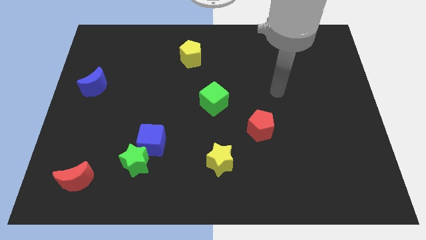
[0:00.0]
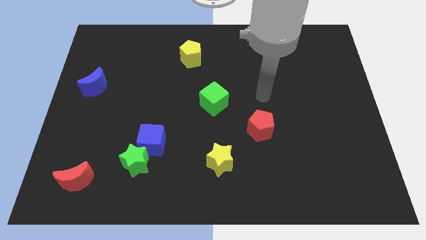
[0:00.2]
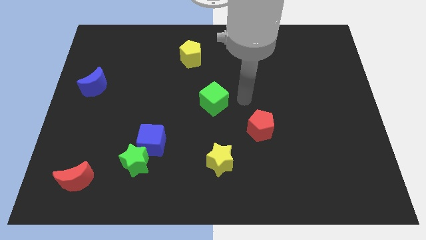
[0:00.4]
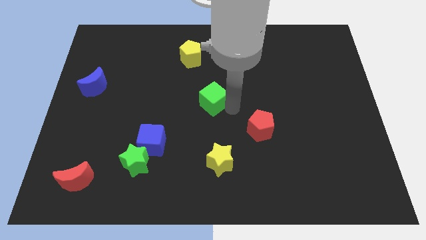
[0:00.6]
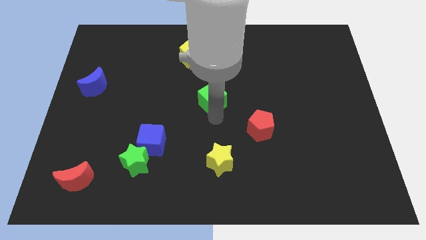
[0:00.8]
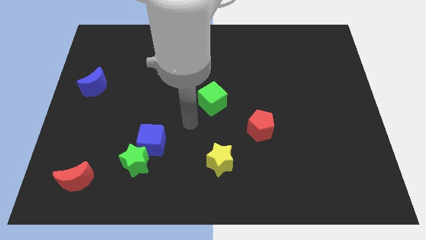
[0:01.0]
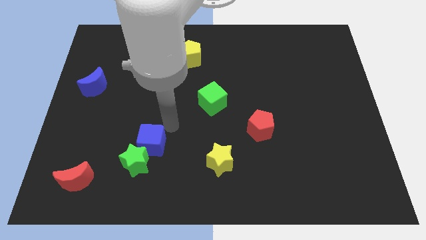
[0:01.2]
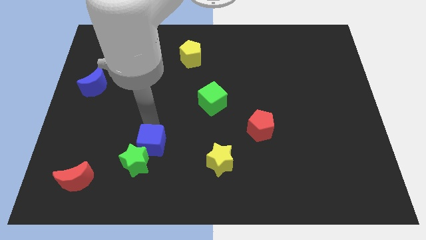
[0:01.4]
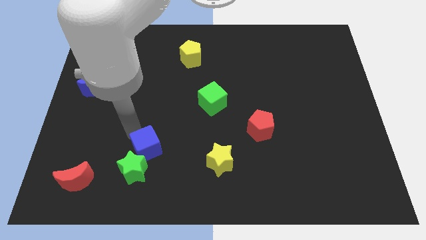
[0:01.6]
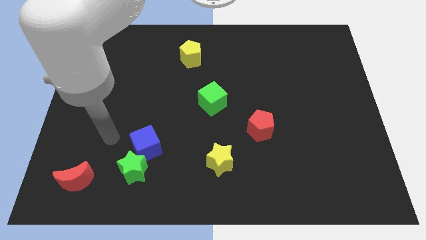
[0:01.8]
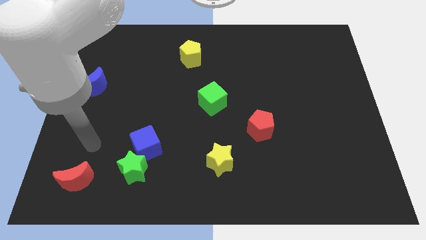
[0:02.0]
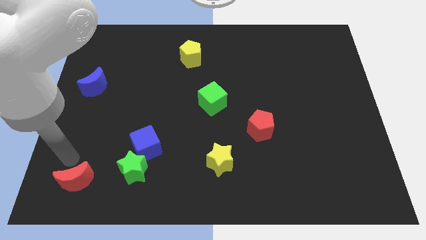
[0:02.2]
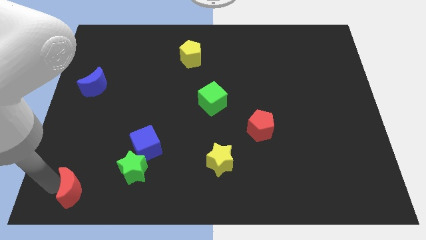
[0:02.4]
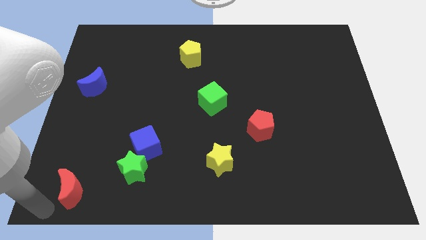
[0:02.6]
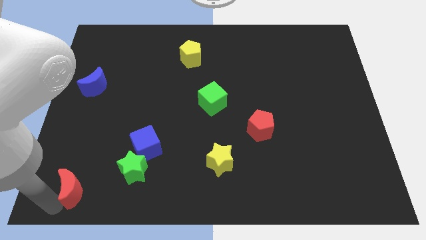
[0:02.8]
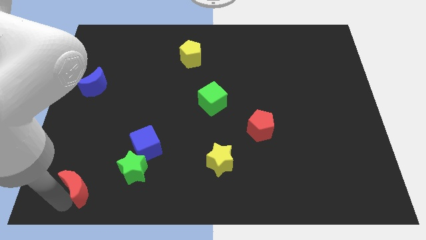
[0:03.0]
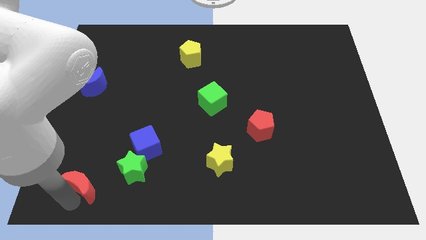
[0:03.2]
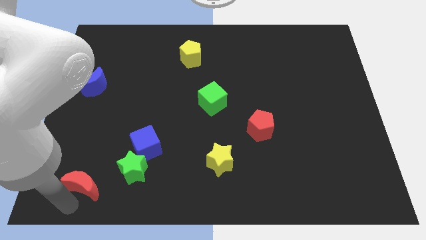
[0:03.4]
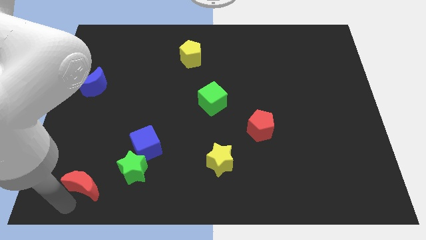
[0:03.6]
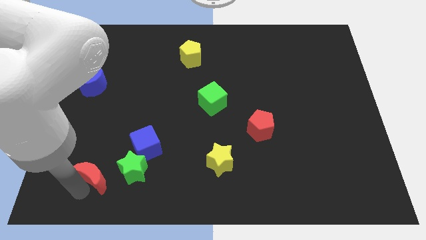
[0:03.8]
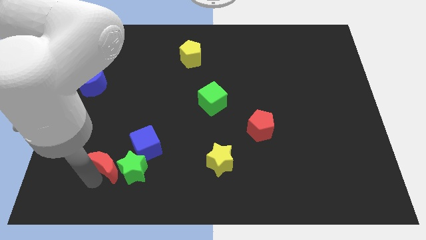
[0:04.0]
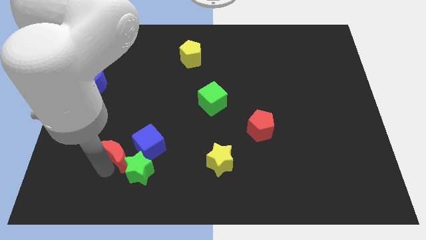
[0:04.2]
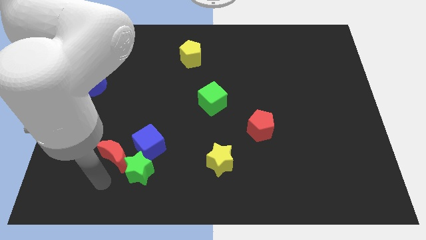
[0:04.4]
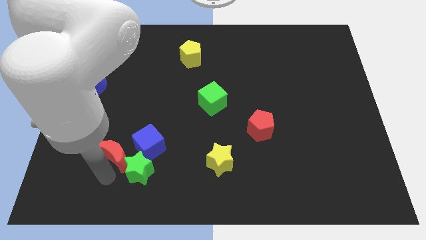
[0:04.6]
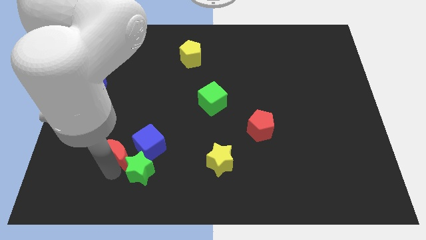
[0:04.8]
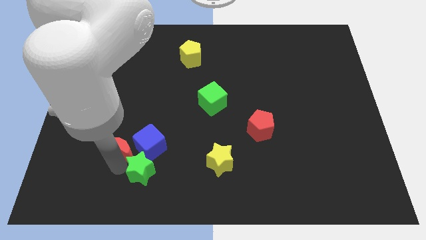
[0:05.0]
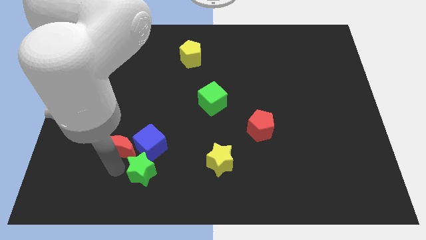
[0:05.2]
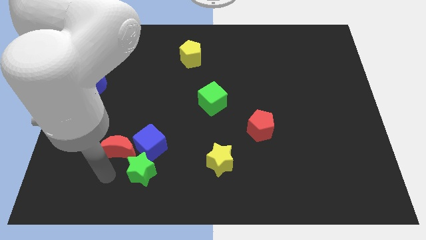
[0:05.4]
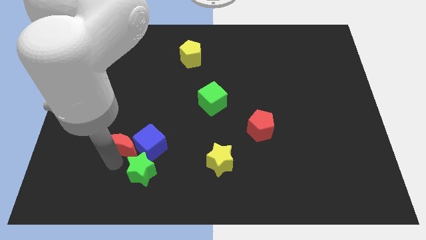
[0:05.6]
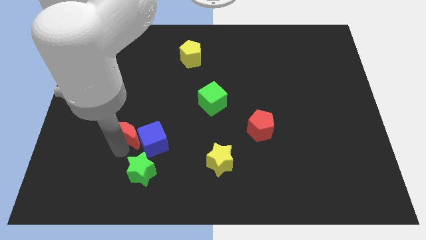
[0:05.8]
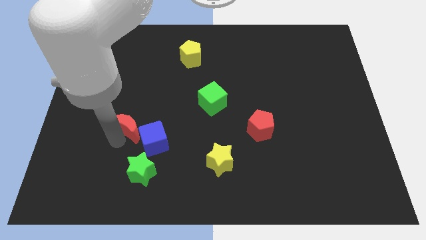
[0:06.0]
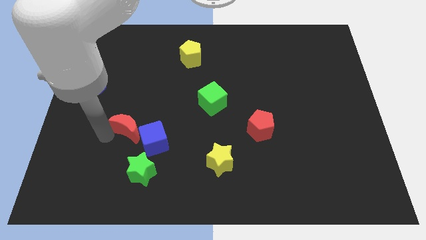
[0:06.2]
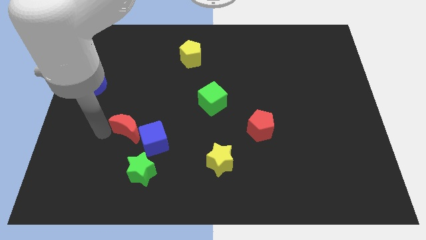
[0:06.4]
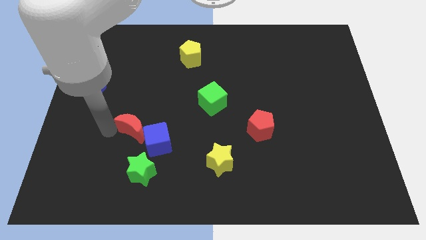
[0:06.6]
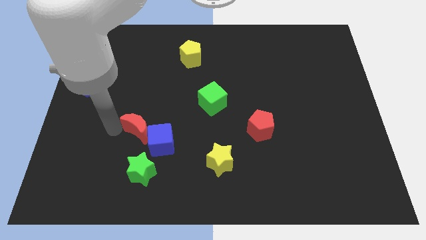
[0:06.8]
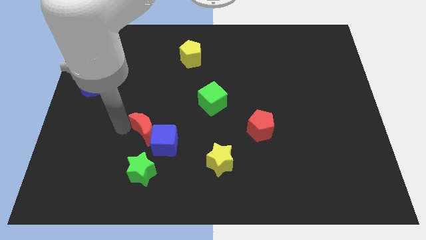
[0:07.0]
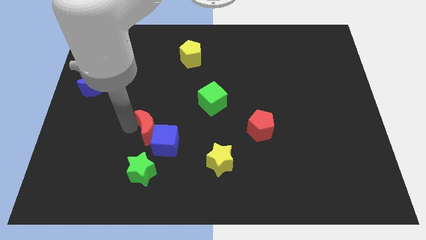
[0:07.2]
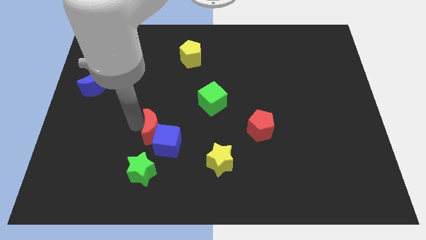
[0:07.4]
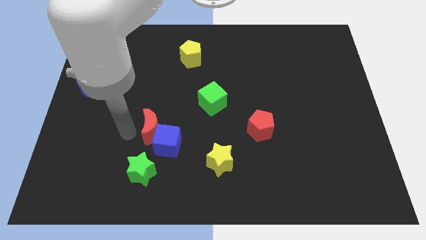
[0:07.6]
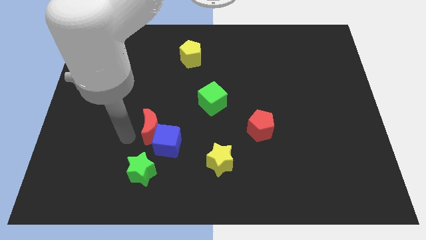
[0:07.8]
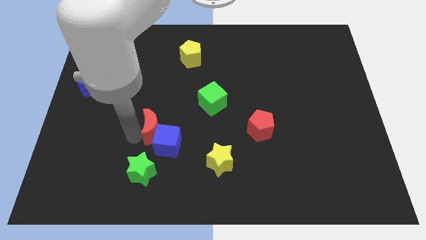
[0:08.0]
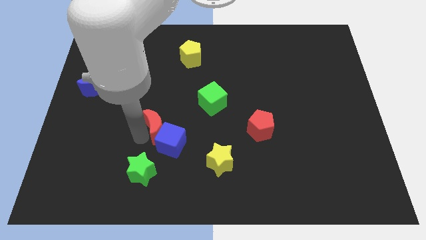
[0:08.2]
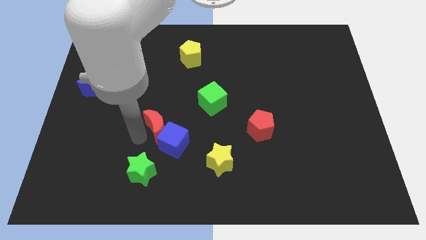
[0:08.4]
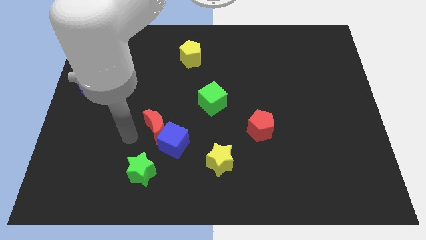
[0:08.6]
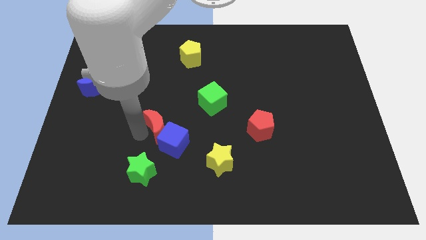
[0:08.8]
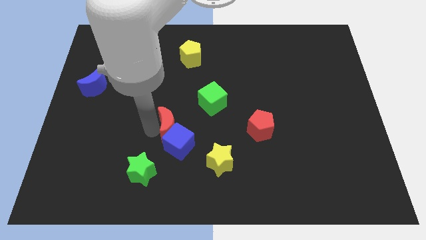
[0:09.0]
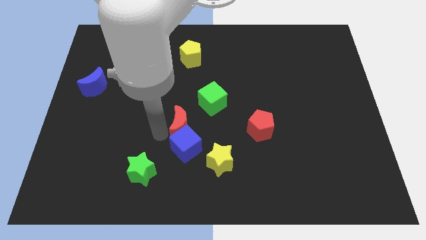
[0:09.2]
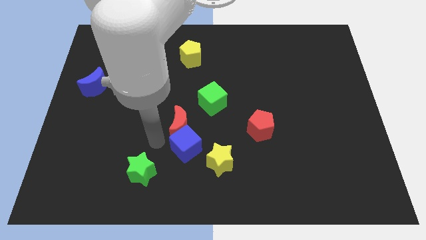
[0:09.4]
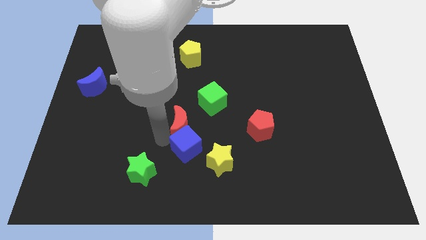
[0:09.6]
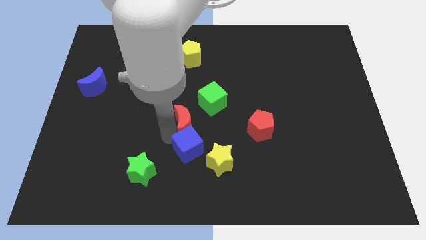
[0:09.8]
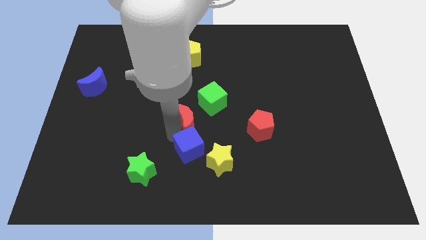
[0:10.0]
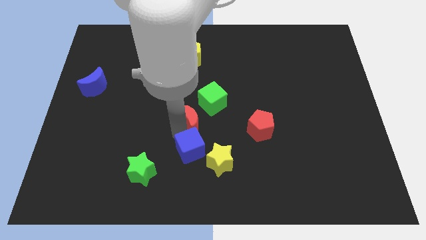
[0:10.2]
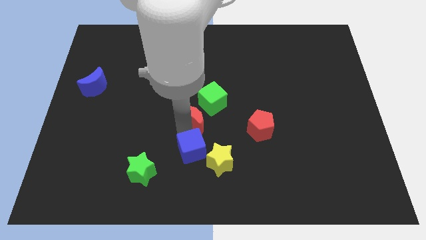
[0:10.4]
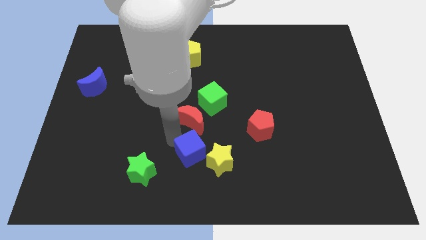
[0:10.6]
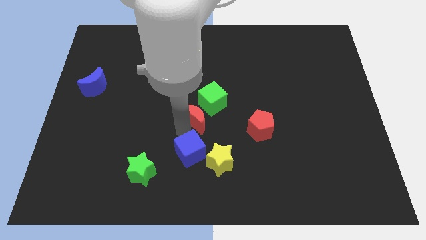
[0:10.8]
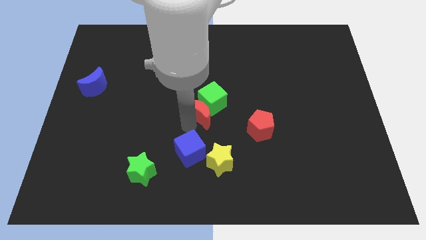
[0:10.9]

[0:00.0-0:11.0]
push the red moon next to the green cube

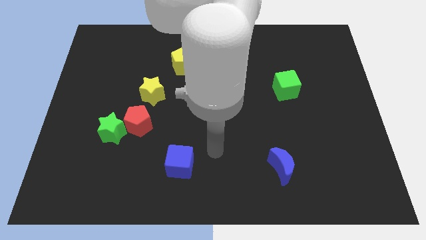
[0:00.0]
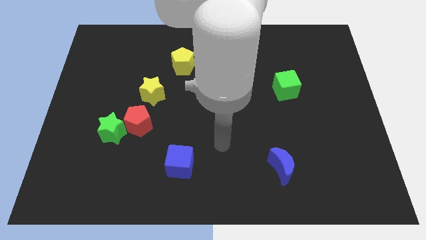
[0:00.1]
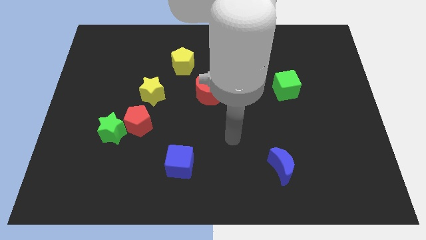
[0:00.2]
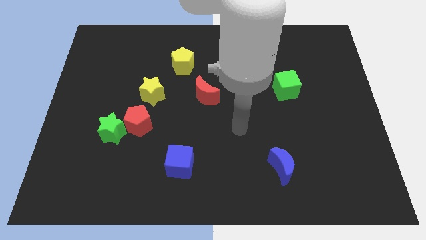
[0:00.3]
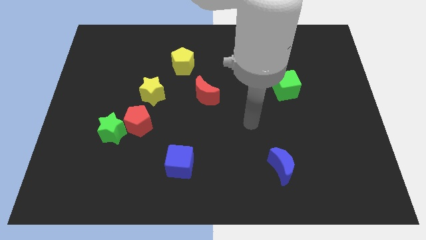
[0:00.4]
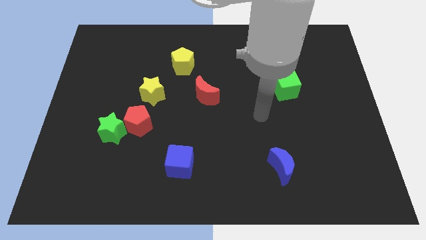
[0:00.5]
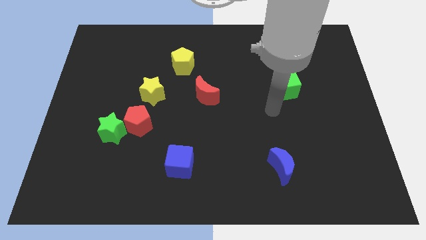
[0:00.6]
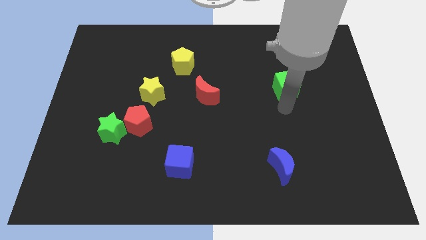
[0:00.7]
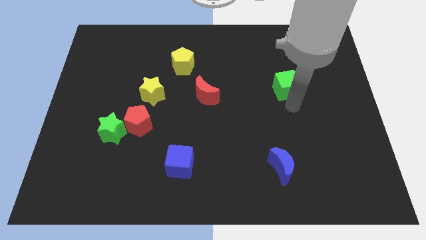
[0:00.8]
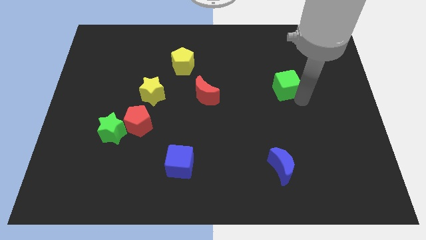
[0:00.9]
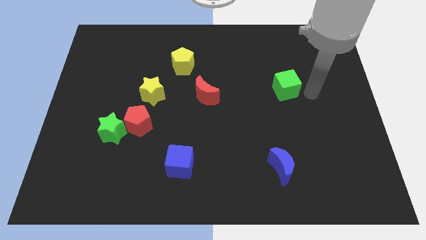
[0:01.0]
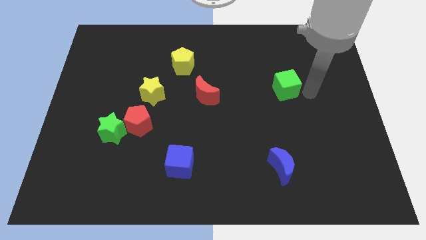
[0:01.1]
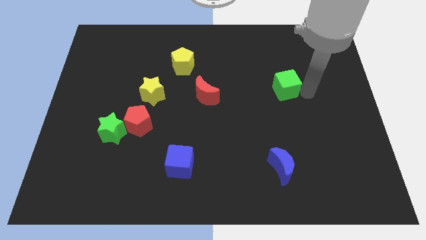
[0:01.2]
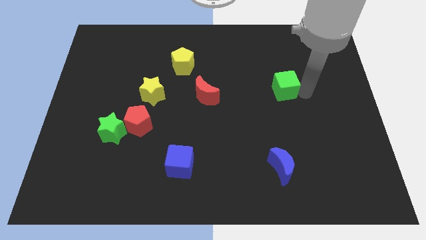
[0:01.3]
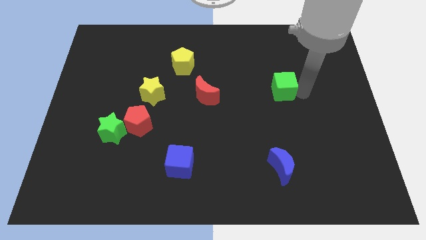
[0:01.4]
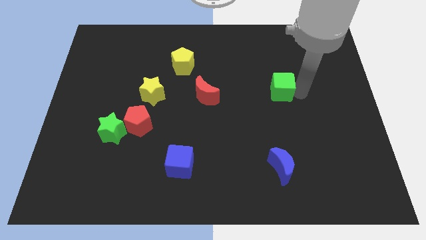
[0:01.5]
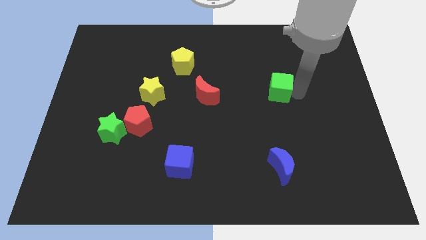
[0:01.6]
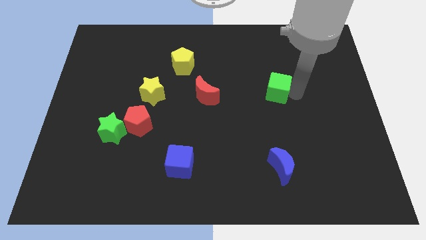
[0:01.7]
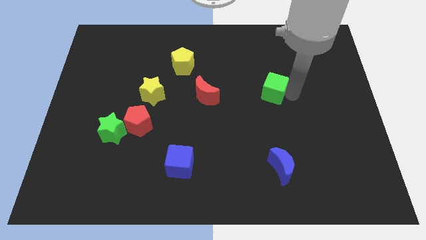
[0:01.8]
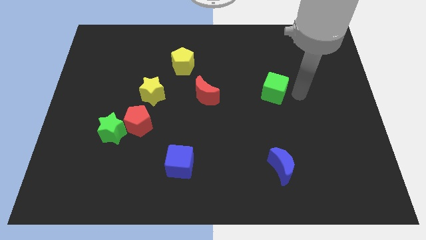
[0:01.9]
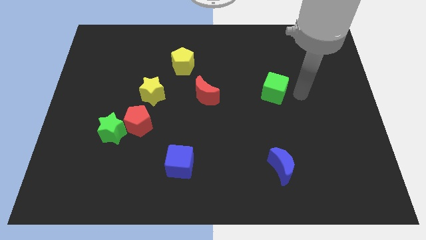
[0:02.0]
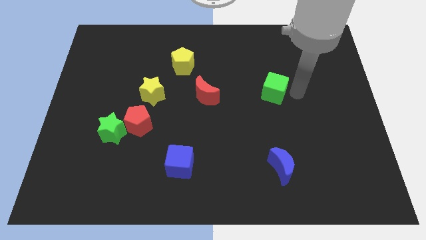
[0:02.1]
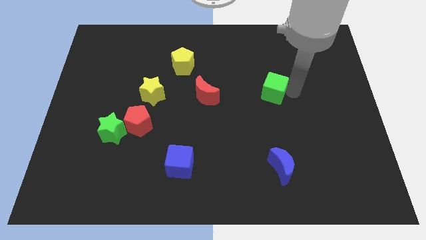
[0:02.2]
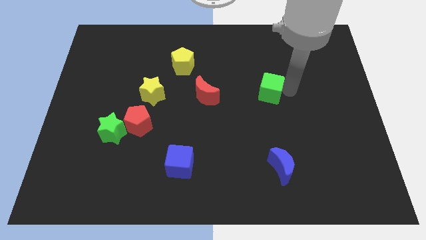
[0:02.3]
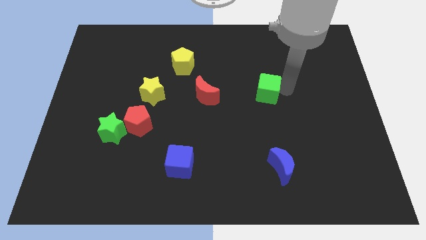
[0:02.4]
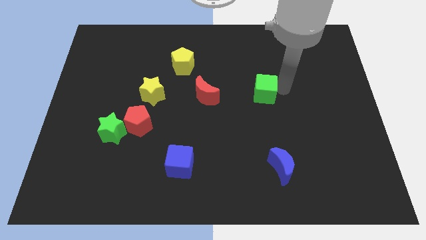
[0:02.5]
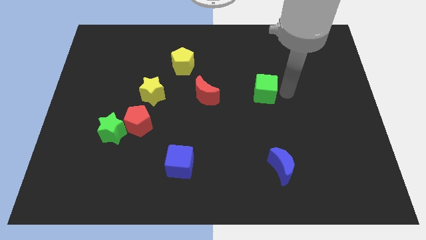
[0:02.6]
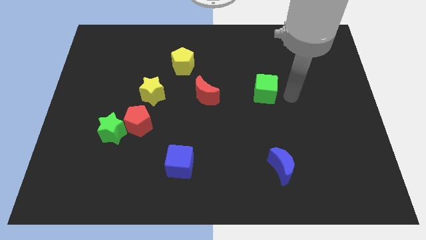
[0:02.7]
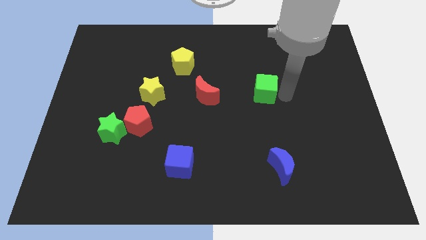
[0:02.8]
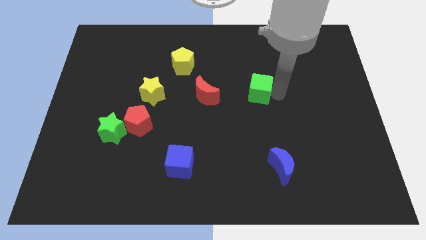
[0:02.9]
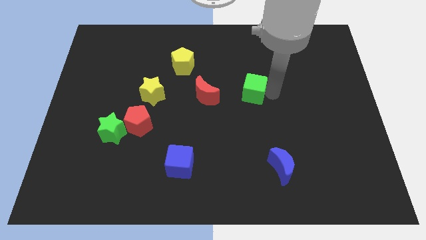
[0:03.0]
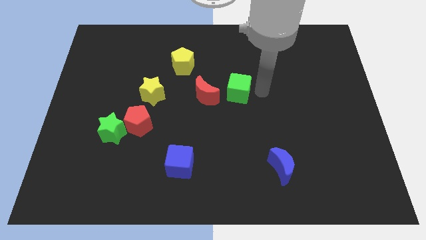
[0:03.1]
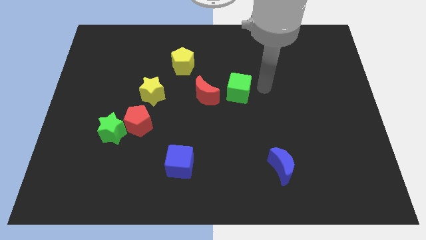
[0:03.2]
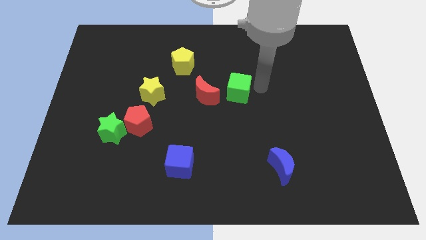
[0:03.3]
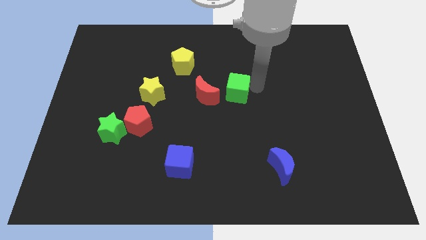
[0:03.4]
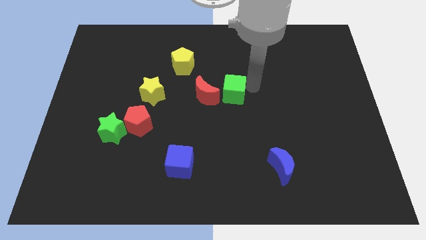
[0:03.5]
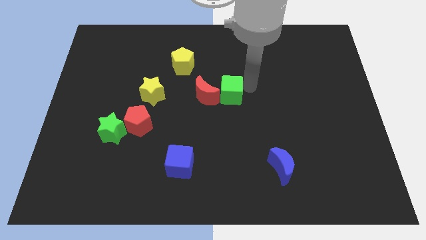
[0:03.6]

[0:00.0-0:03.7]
move the green cube close to the red moon
